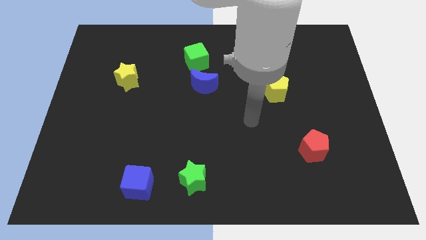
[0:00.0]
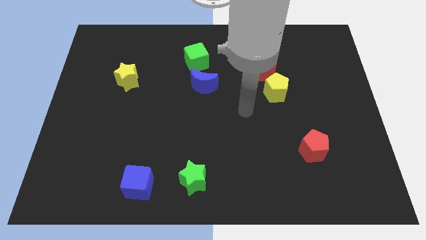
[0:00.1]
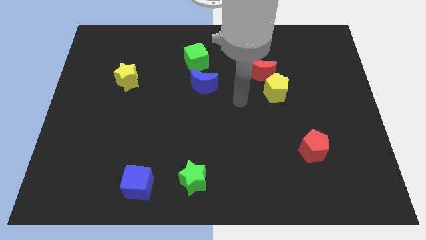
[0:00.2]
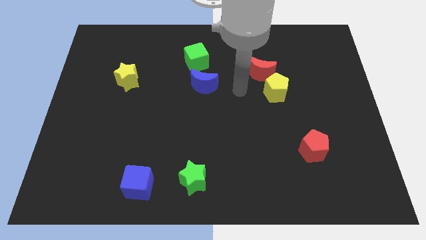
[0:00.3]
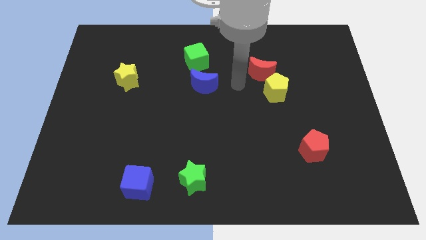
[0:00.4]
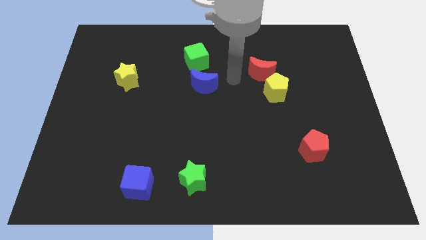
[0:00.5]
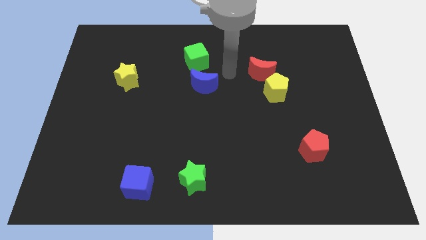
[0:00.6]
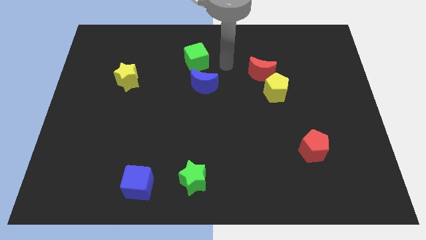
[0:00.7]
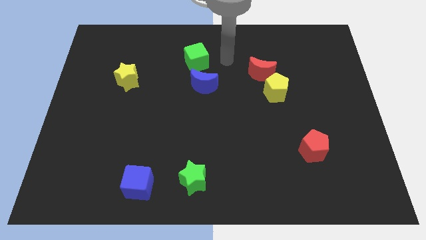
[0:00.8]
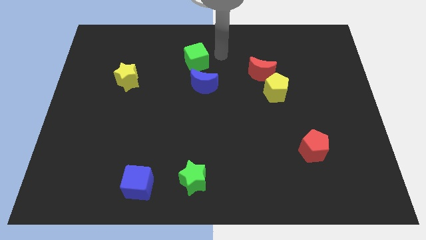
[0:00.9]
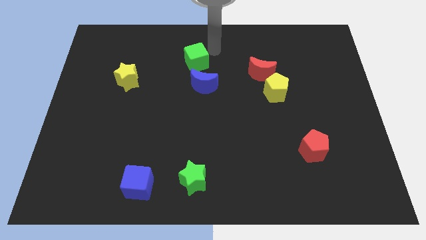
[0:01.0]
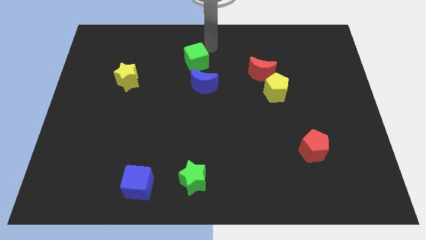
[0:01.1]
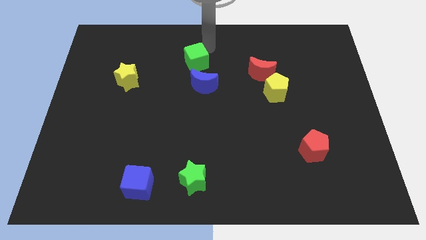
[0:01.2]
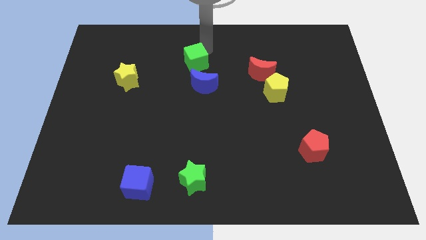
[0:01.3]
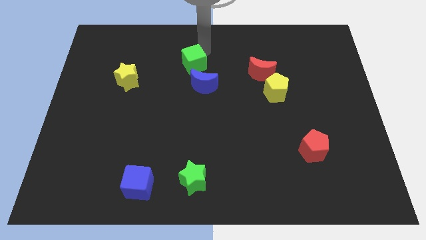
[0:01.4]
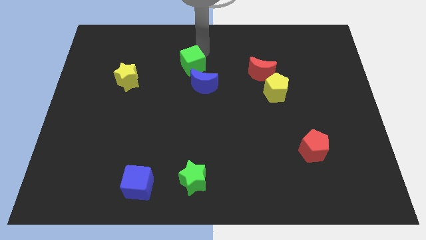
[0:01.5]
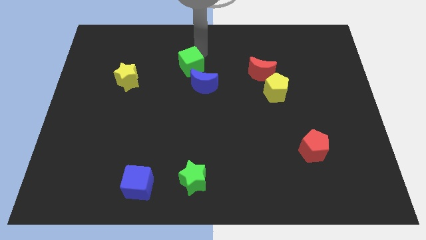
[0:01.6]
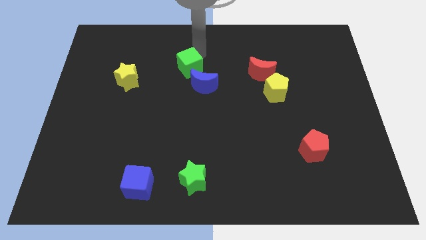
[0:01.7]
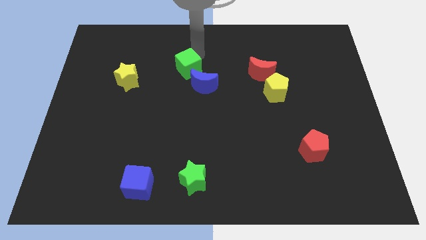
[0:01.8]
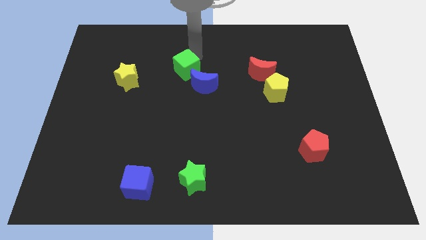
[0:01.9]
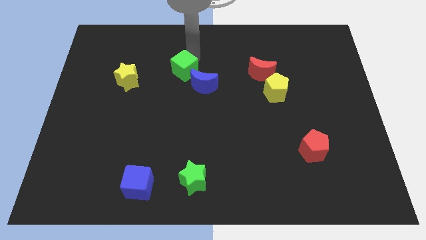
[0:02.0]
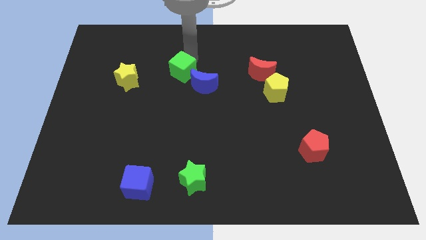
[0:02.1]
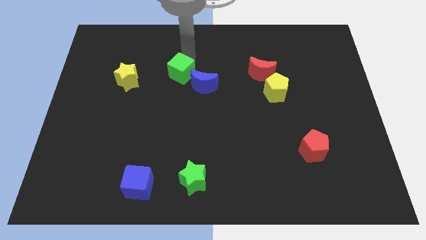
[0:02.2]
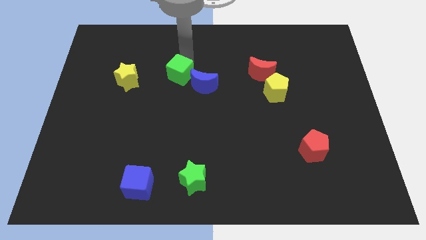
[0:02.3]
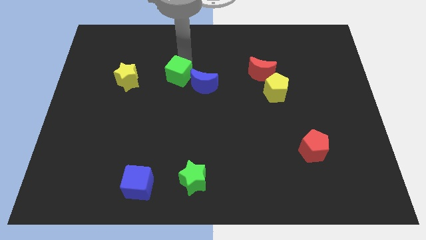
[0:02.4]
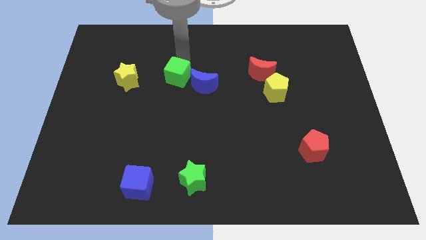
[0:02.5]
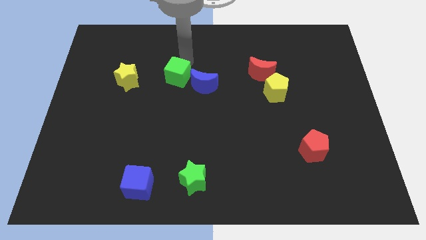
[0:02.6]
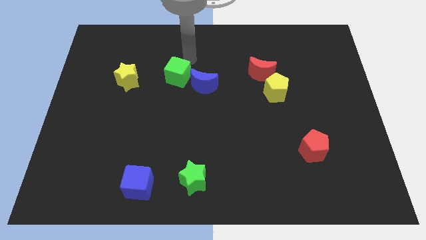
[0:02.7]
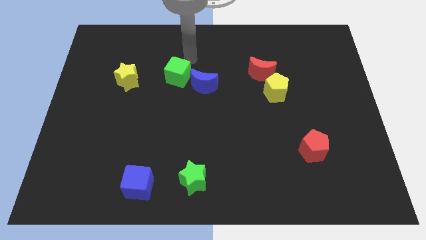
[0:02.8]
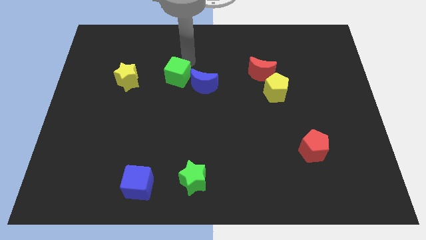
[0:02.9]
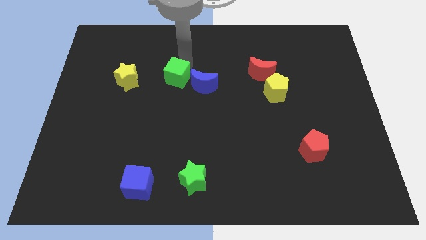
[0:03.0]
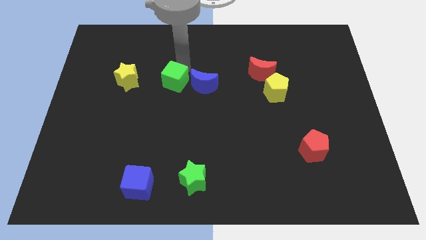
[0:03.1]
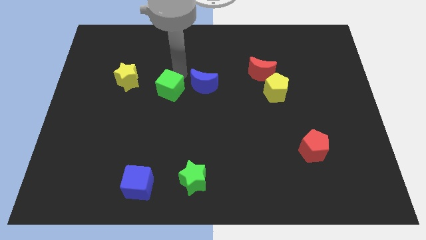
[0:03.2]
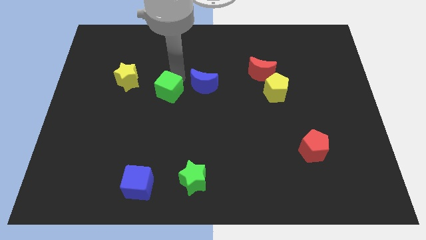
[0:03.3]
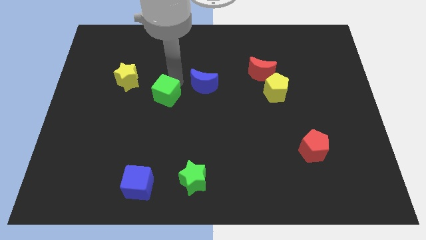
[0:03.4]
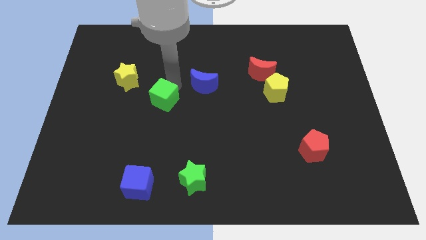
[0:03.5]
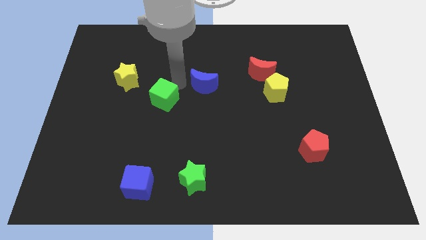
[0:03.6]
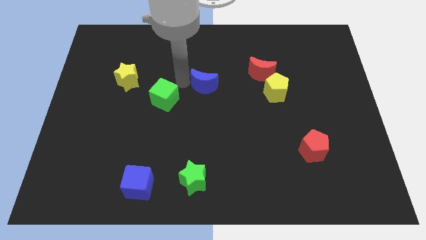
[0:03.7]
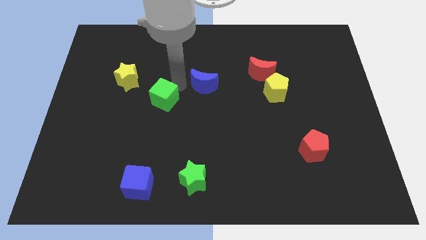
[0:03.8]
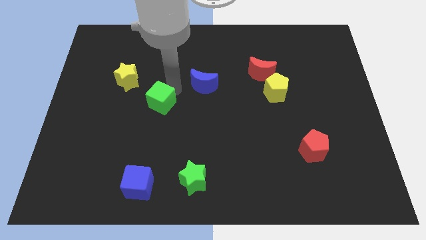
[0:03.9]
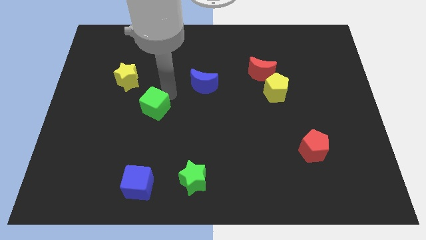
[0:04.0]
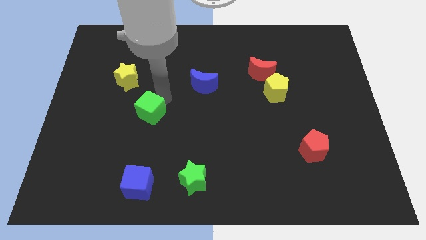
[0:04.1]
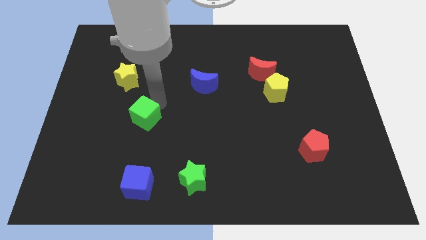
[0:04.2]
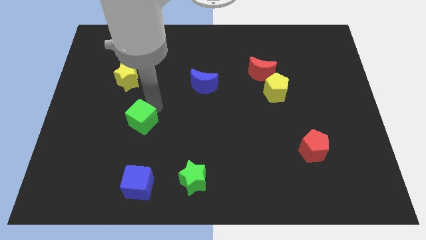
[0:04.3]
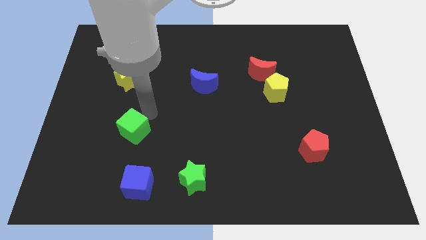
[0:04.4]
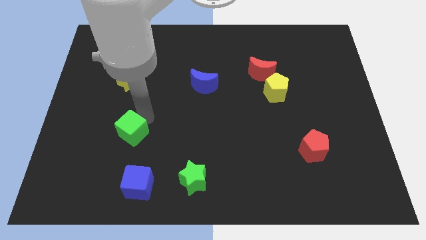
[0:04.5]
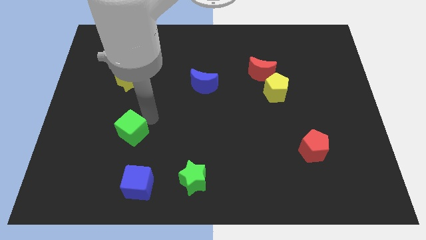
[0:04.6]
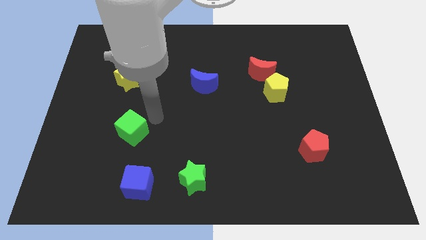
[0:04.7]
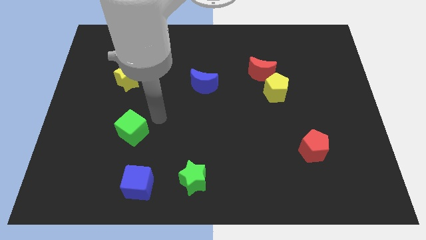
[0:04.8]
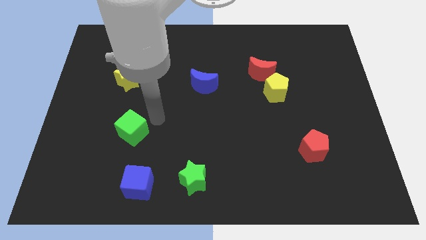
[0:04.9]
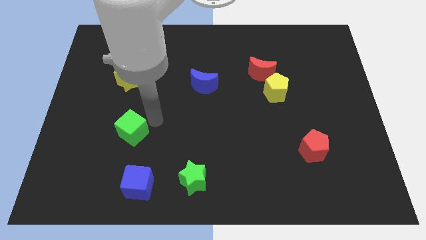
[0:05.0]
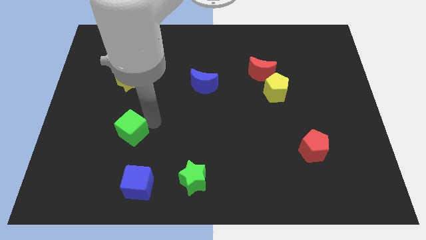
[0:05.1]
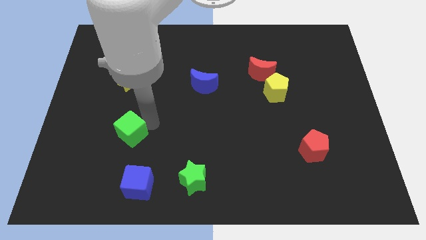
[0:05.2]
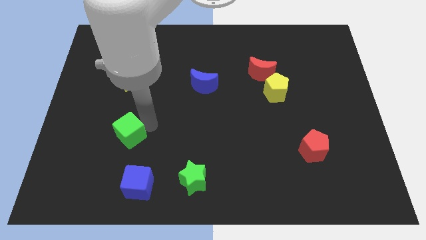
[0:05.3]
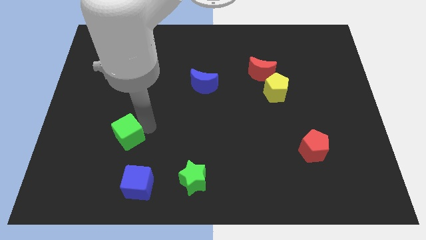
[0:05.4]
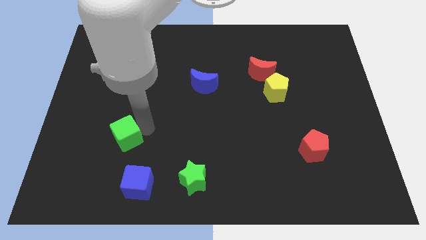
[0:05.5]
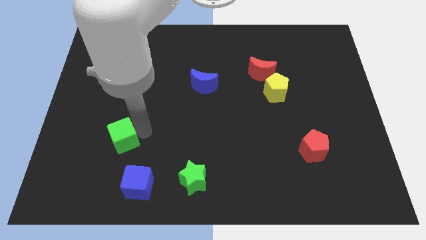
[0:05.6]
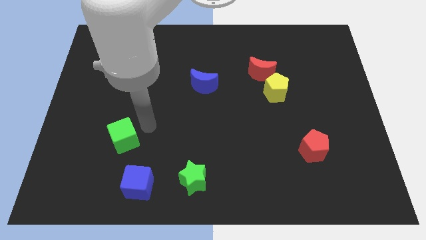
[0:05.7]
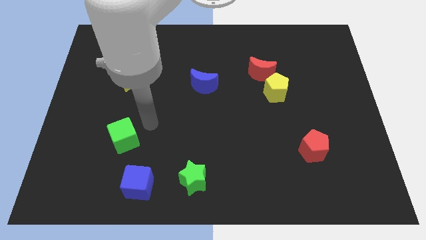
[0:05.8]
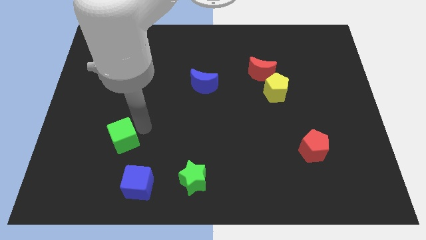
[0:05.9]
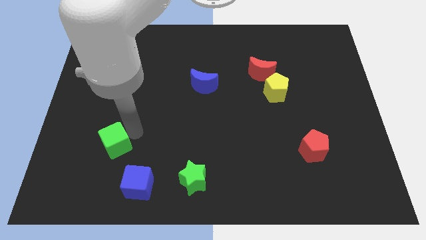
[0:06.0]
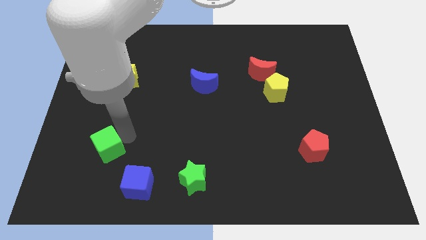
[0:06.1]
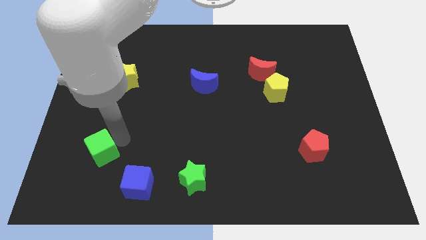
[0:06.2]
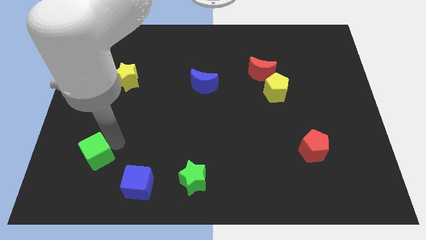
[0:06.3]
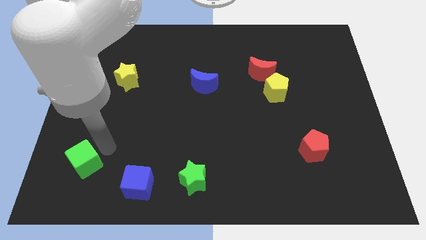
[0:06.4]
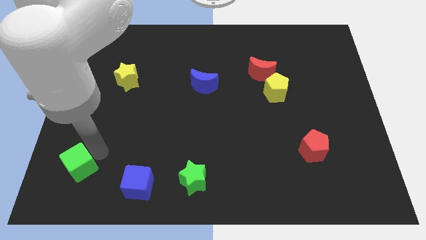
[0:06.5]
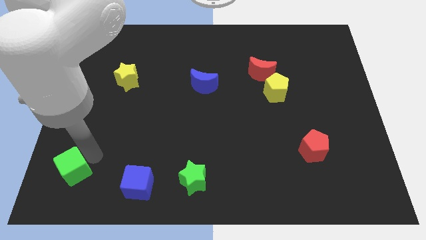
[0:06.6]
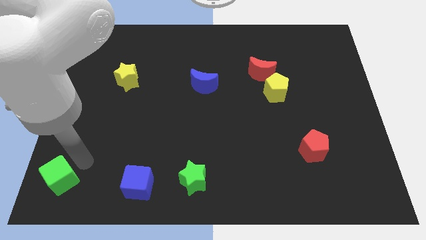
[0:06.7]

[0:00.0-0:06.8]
slide the green cube to the lower left corner

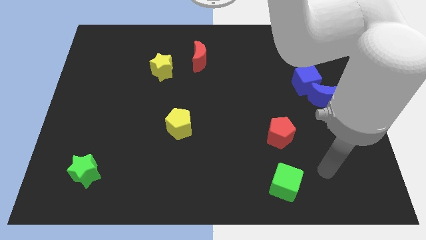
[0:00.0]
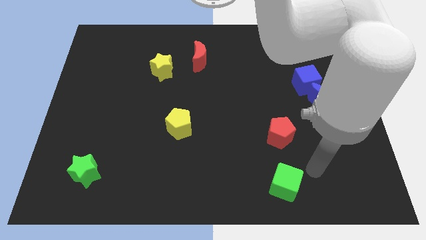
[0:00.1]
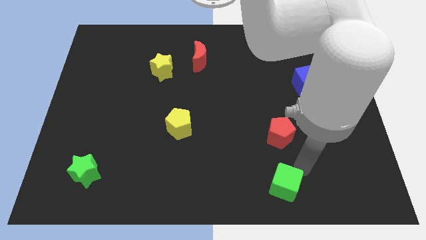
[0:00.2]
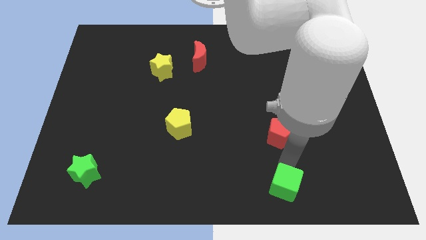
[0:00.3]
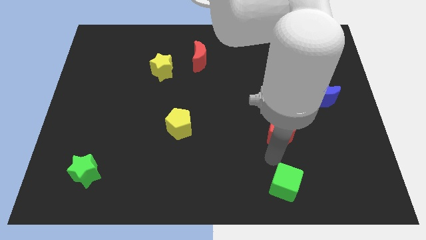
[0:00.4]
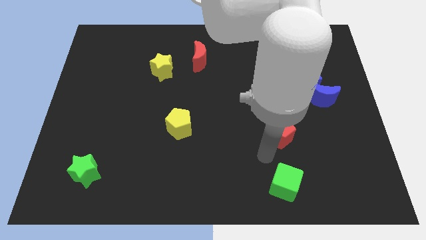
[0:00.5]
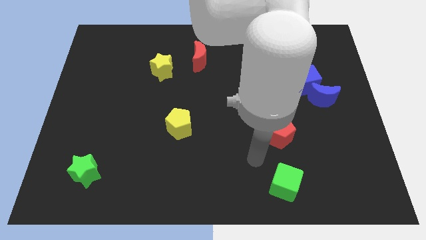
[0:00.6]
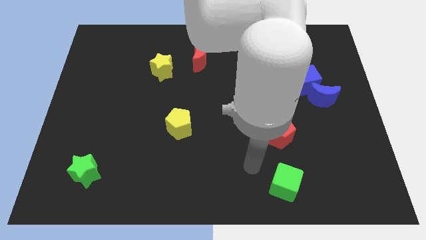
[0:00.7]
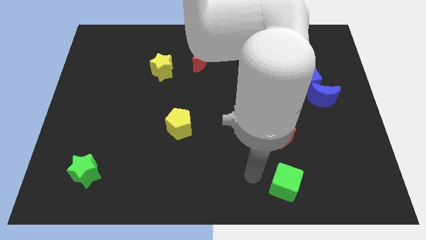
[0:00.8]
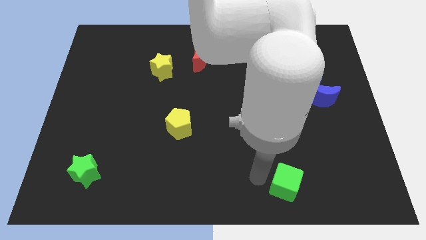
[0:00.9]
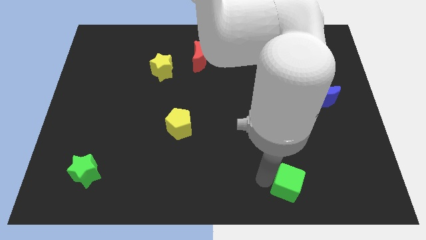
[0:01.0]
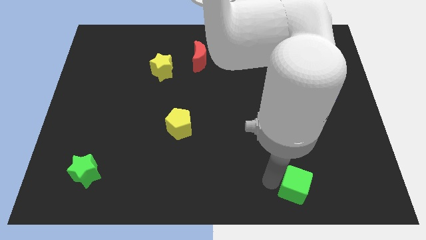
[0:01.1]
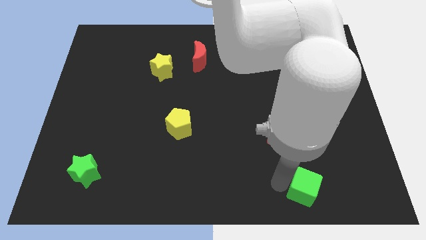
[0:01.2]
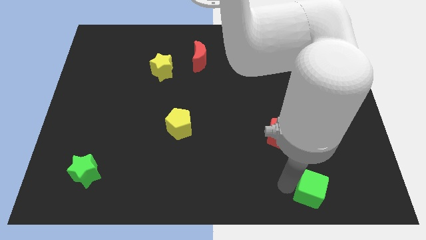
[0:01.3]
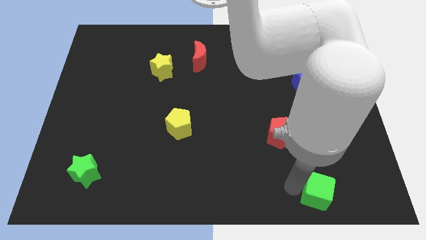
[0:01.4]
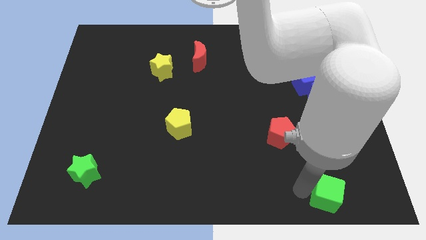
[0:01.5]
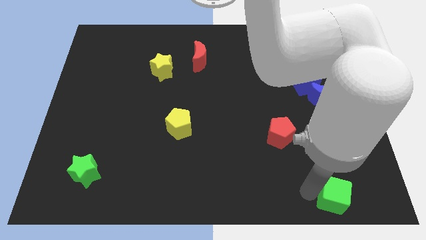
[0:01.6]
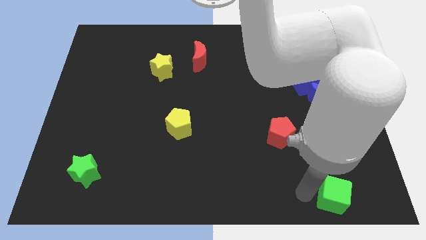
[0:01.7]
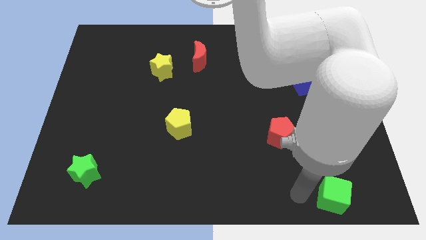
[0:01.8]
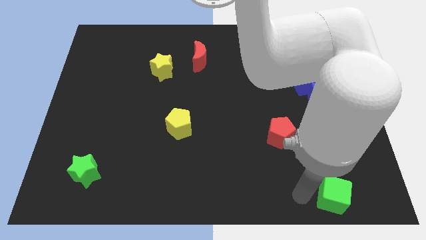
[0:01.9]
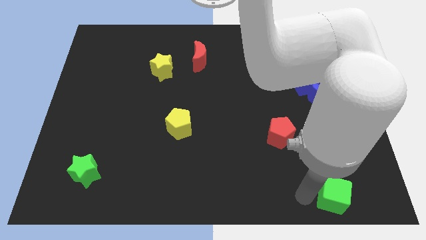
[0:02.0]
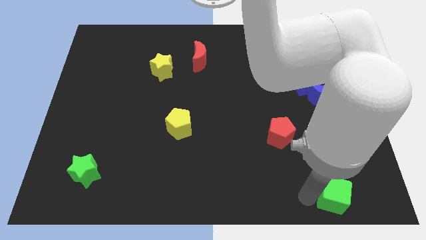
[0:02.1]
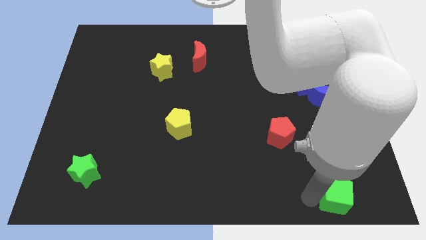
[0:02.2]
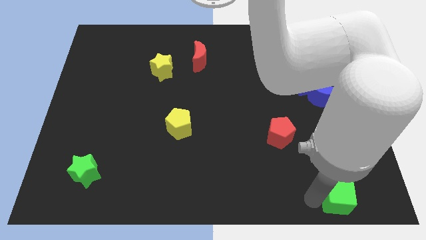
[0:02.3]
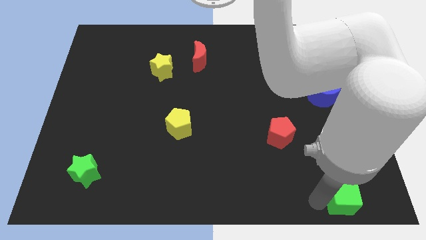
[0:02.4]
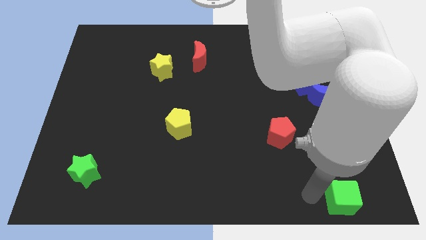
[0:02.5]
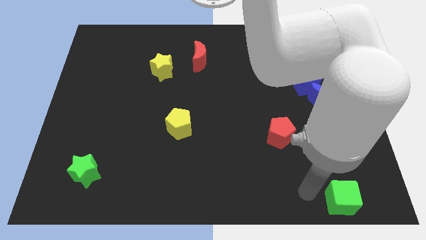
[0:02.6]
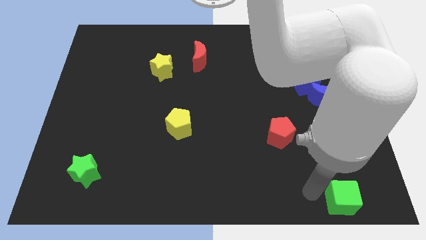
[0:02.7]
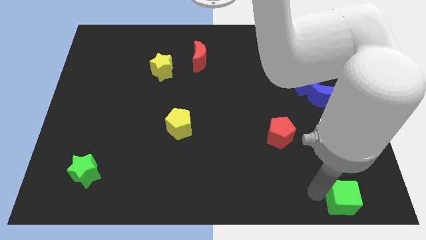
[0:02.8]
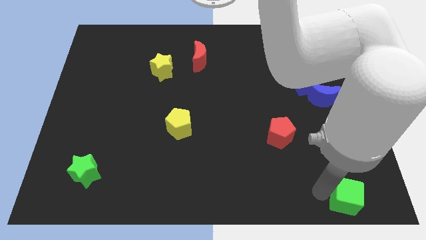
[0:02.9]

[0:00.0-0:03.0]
move the green cube to the bottom right of the board
